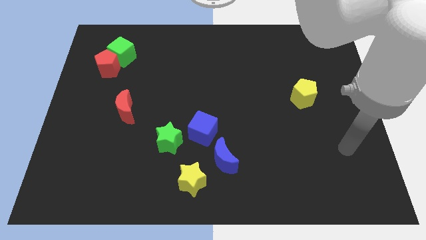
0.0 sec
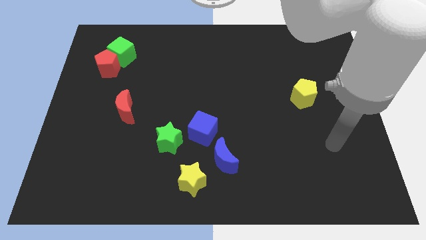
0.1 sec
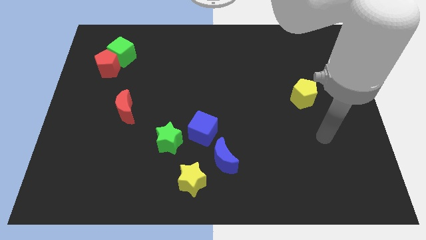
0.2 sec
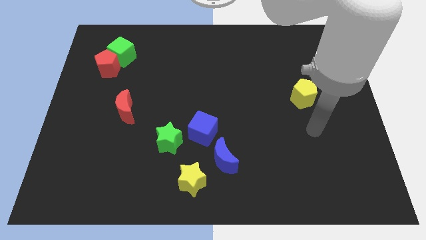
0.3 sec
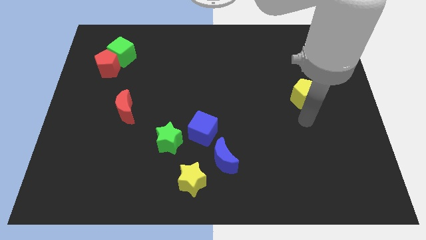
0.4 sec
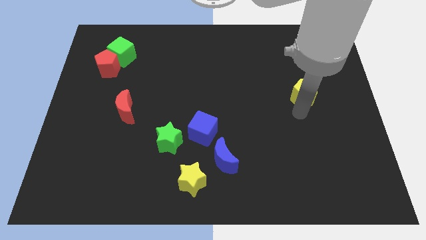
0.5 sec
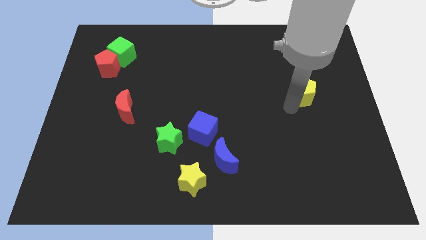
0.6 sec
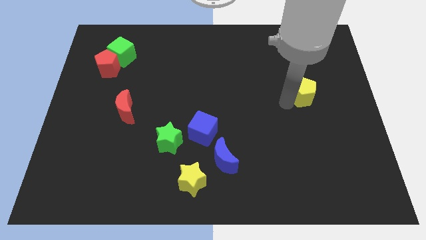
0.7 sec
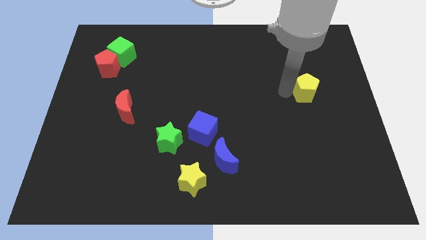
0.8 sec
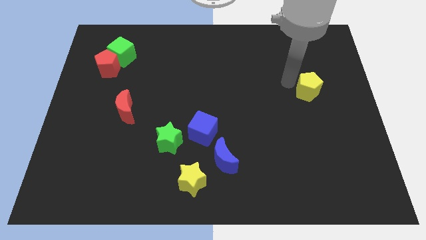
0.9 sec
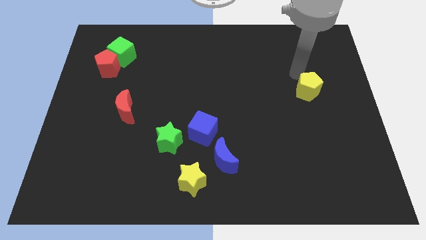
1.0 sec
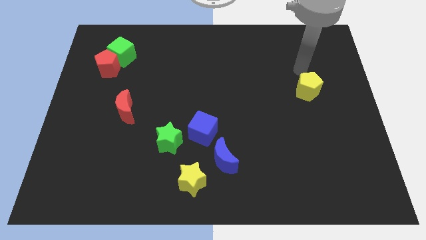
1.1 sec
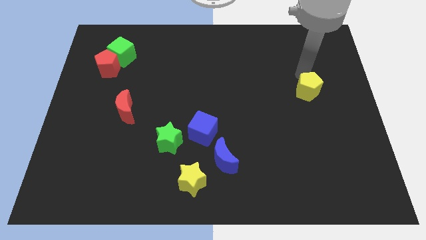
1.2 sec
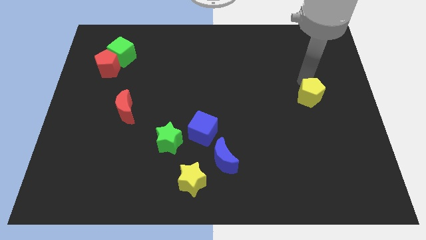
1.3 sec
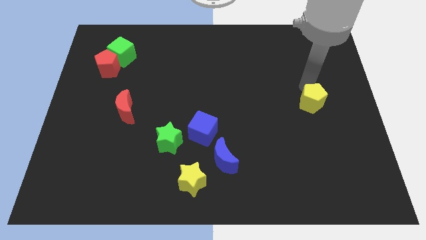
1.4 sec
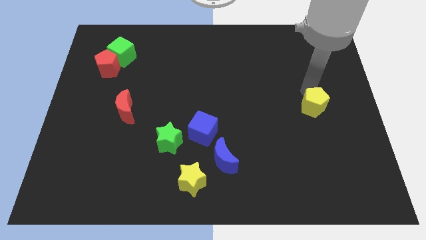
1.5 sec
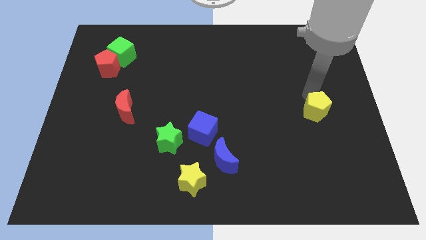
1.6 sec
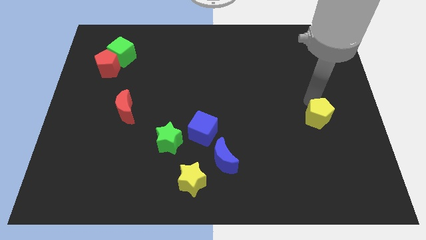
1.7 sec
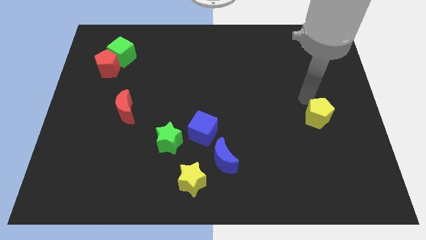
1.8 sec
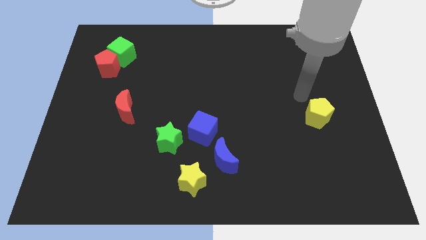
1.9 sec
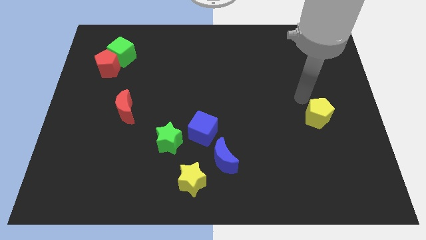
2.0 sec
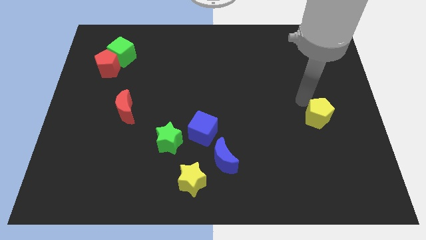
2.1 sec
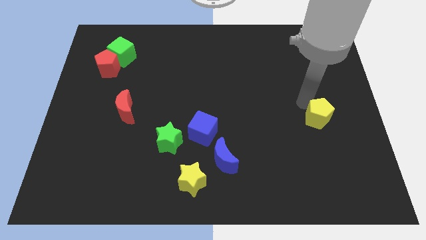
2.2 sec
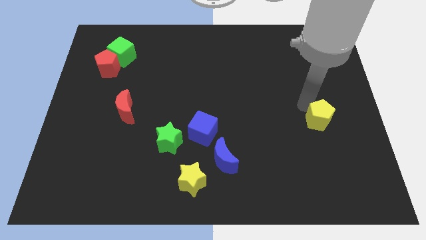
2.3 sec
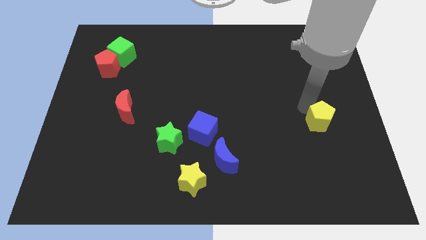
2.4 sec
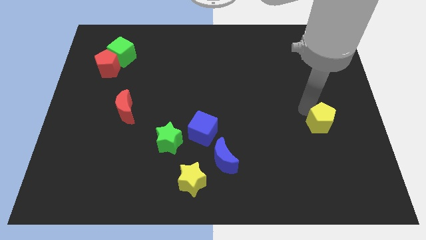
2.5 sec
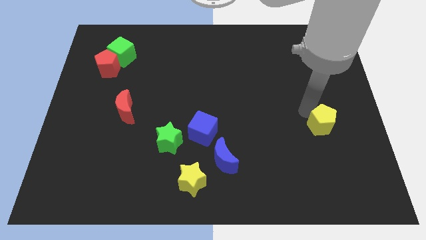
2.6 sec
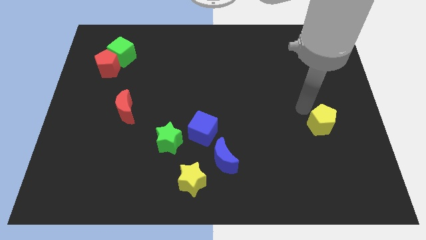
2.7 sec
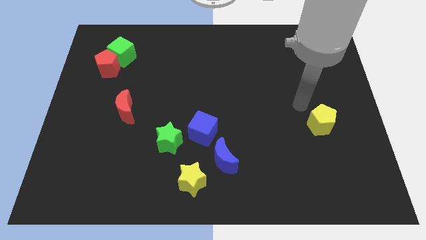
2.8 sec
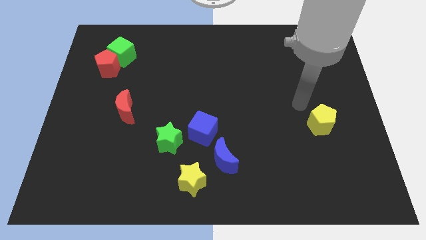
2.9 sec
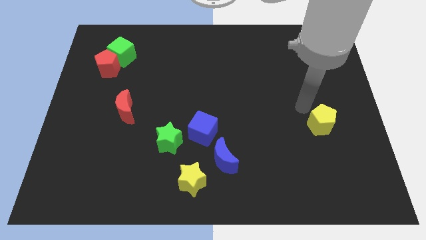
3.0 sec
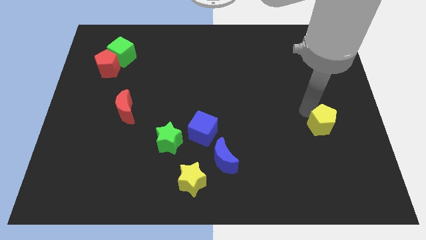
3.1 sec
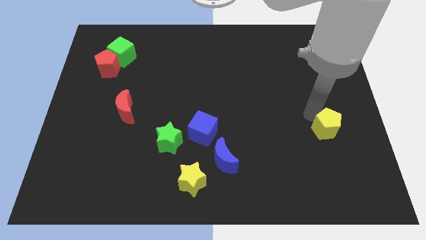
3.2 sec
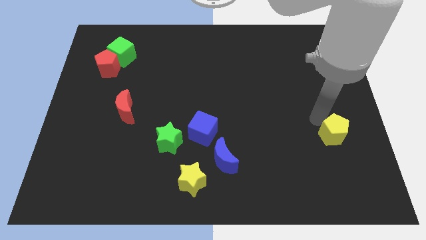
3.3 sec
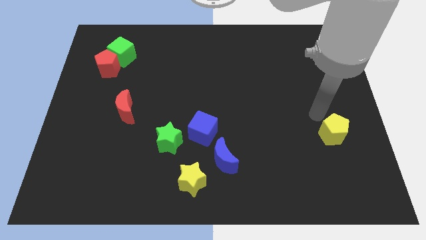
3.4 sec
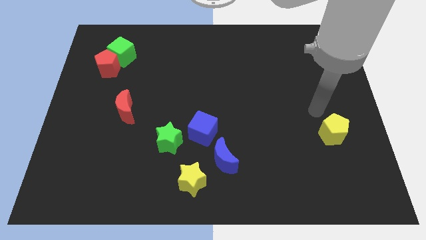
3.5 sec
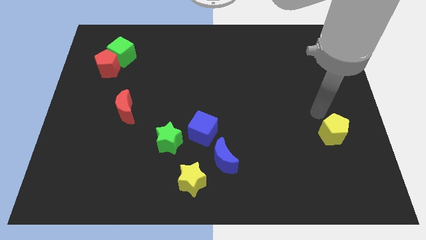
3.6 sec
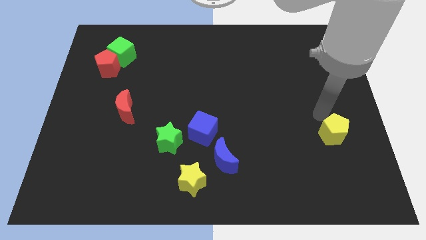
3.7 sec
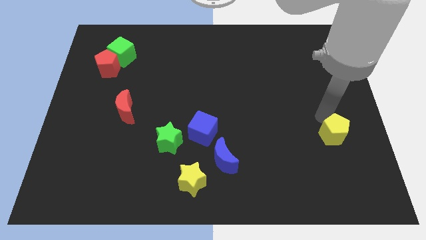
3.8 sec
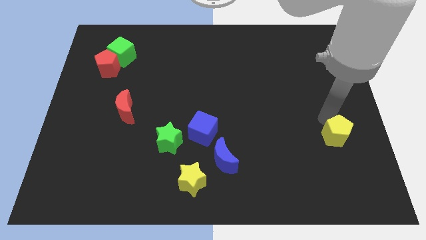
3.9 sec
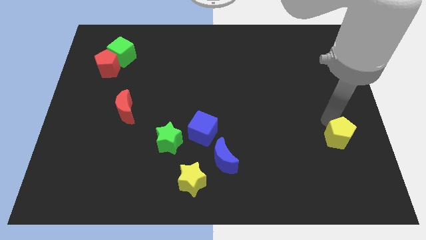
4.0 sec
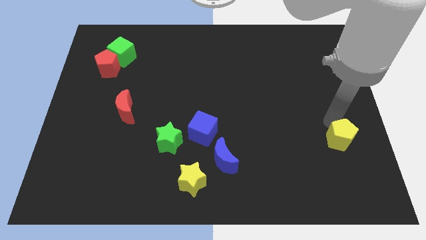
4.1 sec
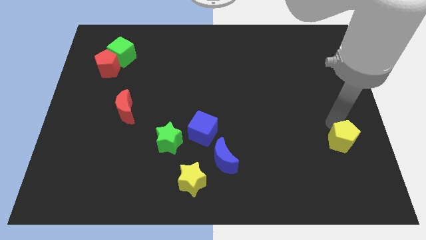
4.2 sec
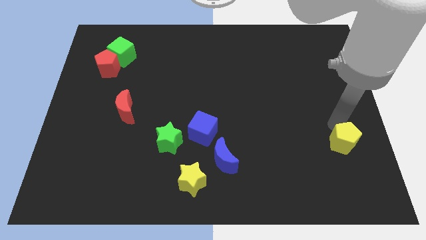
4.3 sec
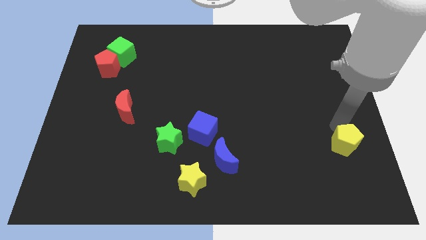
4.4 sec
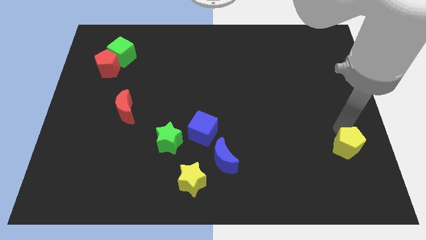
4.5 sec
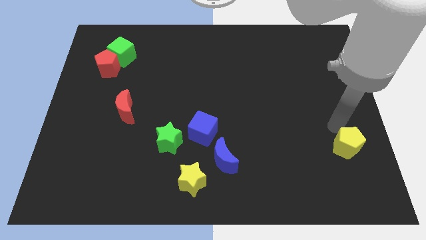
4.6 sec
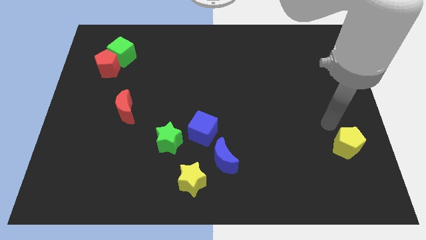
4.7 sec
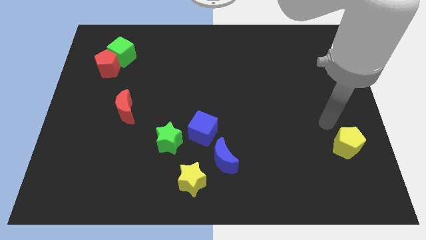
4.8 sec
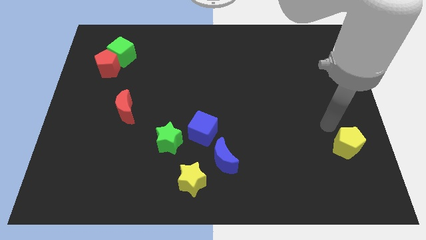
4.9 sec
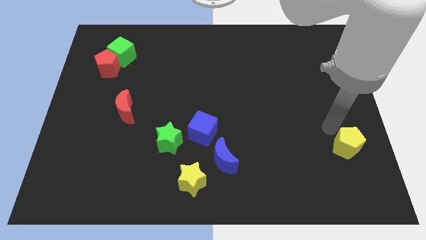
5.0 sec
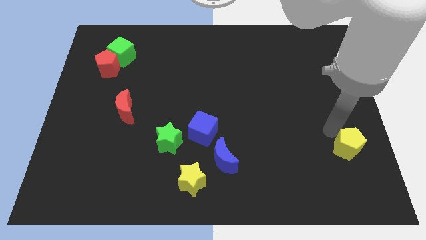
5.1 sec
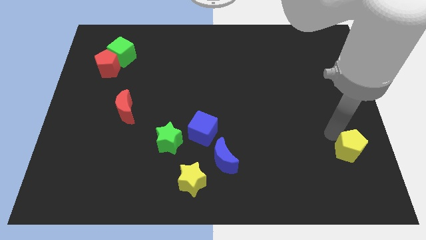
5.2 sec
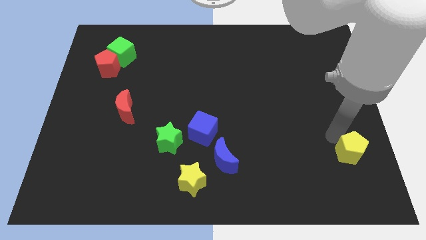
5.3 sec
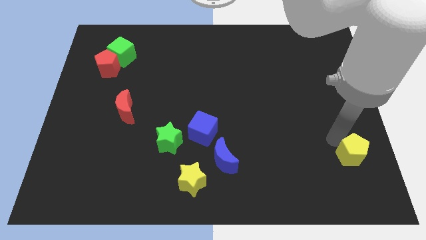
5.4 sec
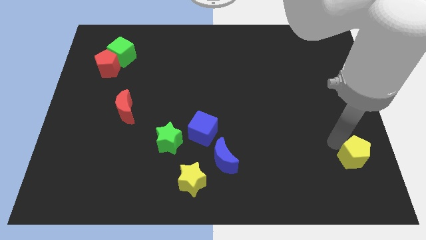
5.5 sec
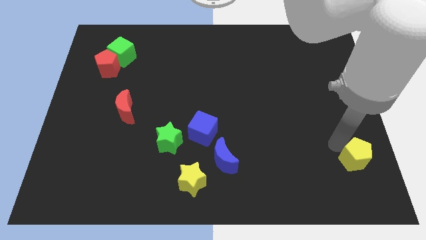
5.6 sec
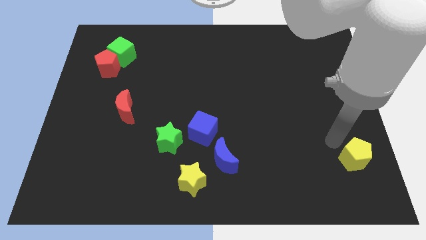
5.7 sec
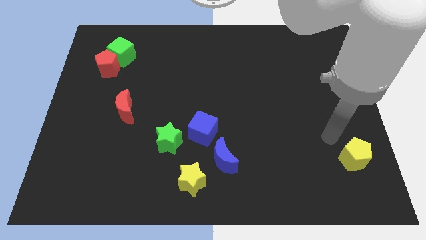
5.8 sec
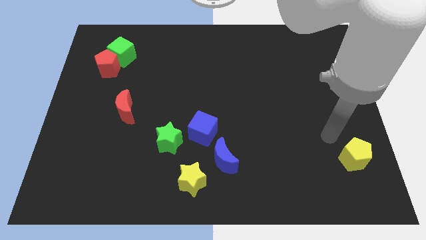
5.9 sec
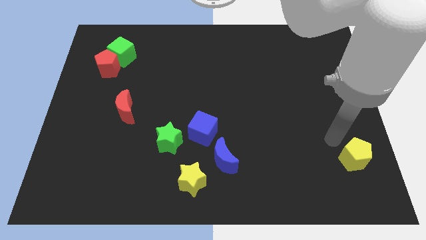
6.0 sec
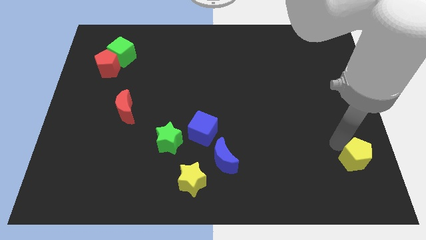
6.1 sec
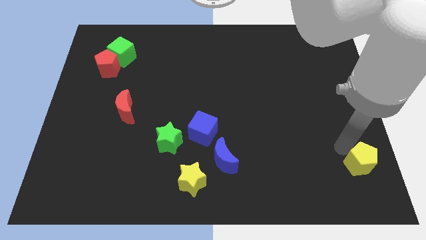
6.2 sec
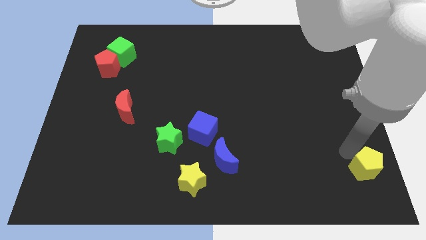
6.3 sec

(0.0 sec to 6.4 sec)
move the yellow pentagon to the lower right corner
